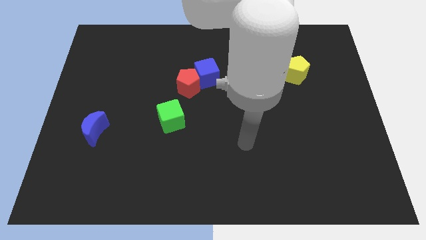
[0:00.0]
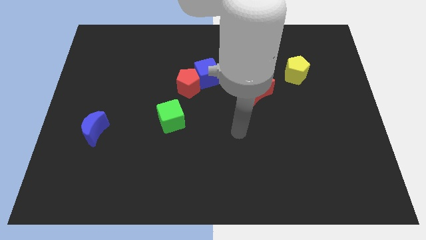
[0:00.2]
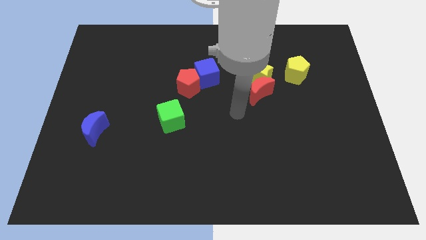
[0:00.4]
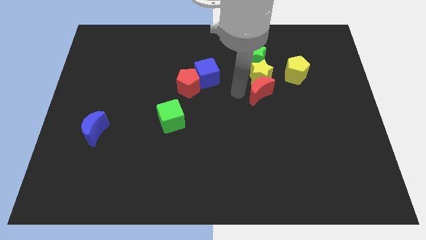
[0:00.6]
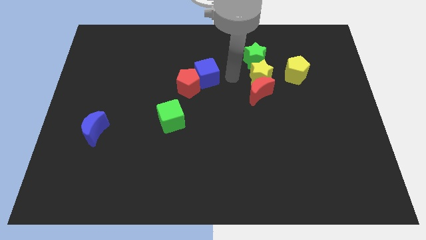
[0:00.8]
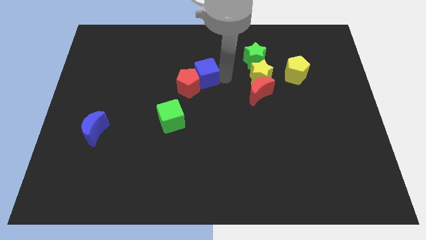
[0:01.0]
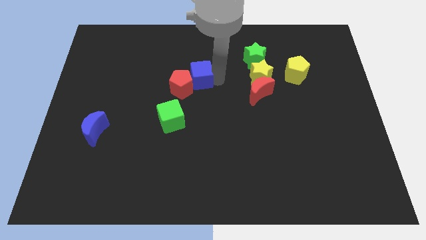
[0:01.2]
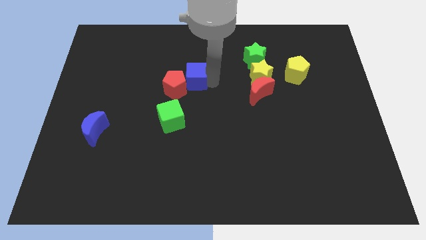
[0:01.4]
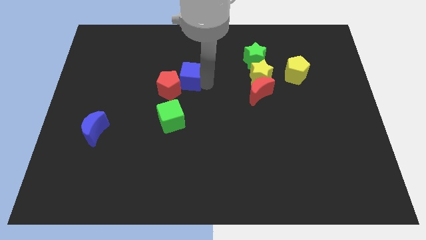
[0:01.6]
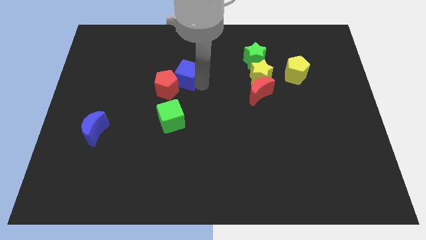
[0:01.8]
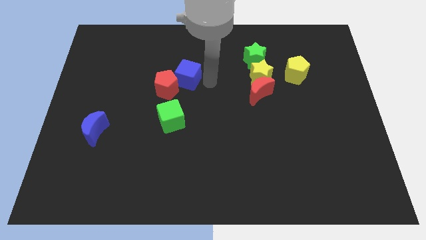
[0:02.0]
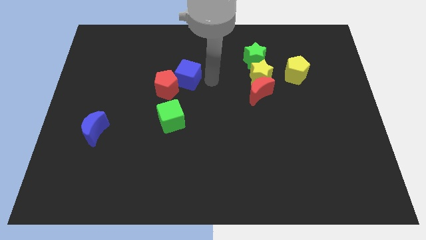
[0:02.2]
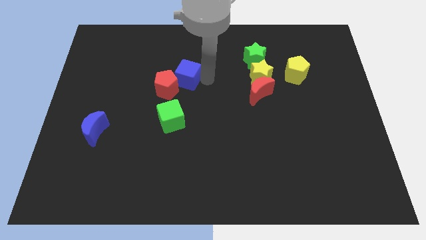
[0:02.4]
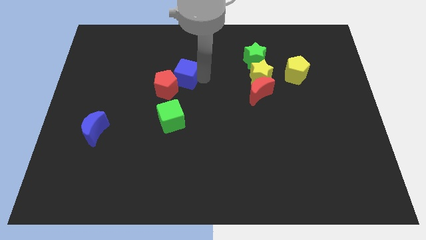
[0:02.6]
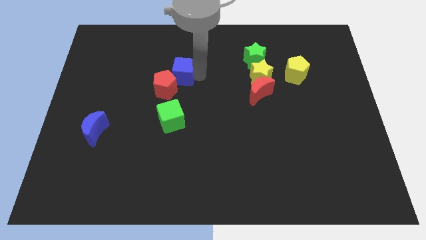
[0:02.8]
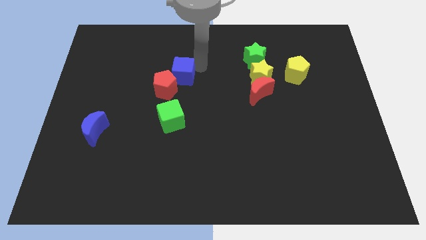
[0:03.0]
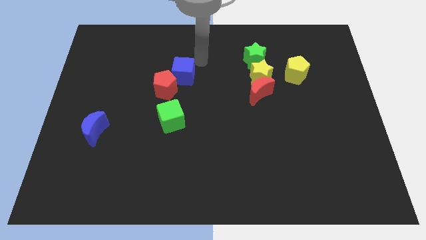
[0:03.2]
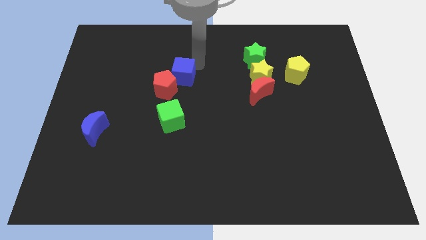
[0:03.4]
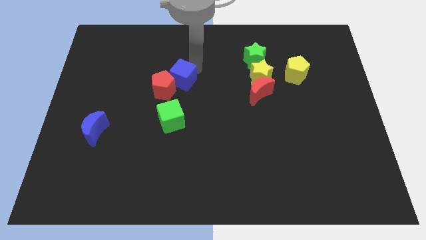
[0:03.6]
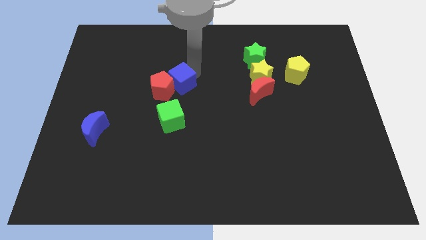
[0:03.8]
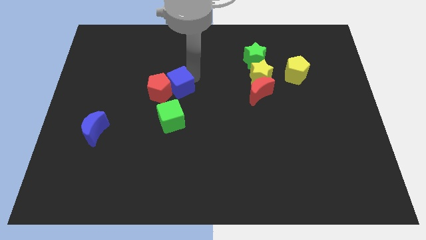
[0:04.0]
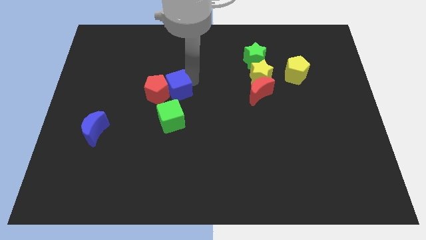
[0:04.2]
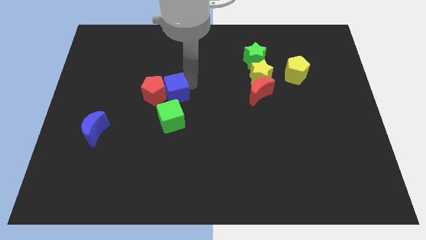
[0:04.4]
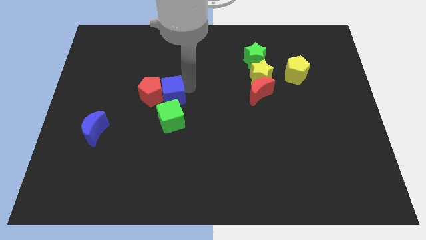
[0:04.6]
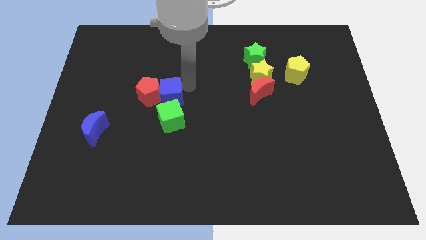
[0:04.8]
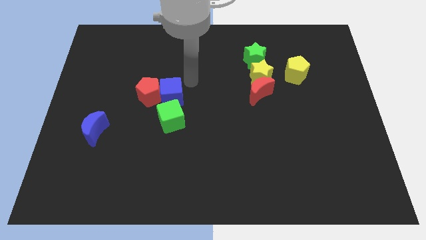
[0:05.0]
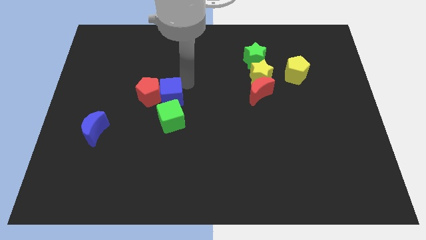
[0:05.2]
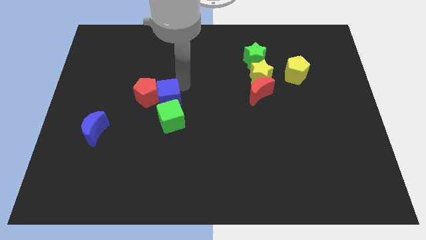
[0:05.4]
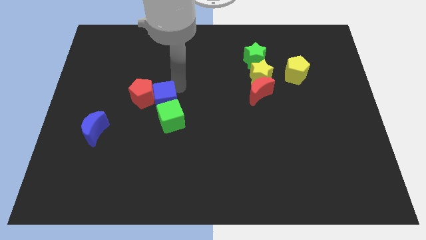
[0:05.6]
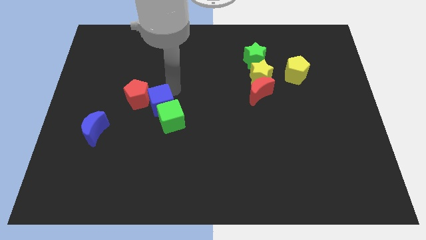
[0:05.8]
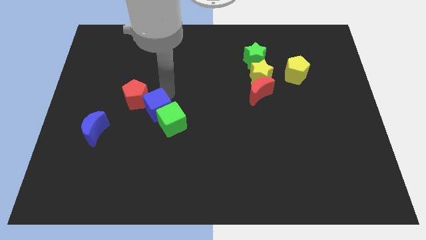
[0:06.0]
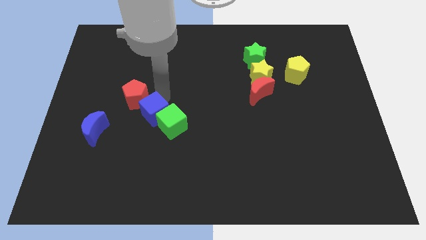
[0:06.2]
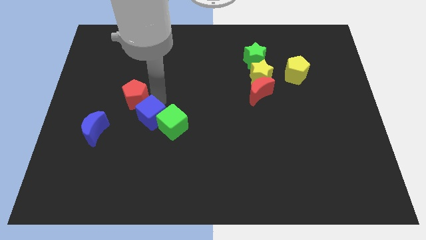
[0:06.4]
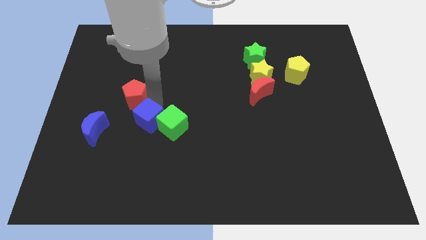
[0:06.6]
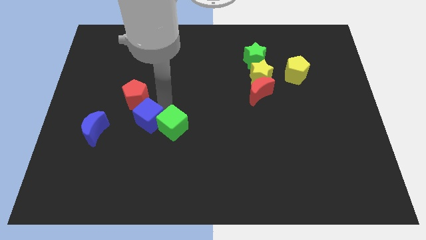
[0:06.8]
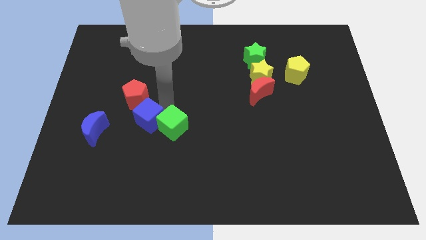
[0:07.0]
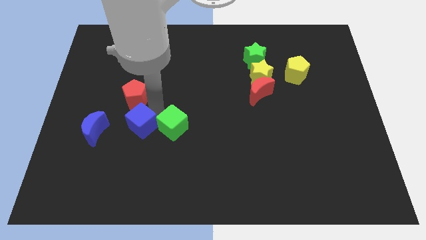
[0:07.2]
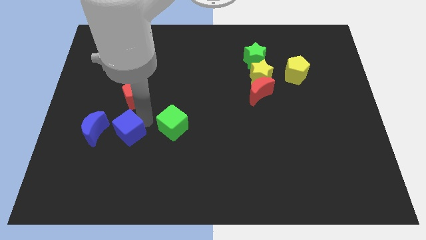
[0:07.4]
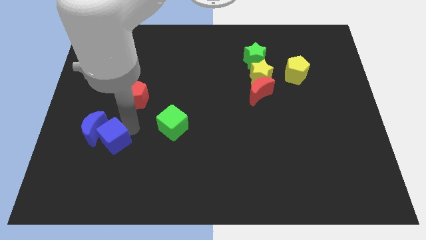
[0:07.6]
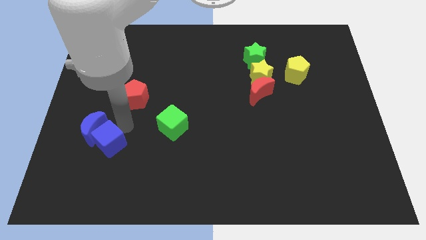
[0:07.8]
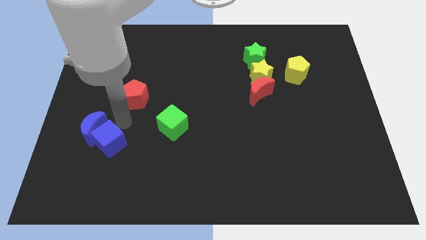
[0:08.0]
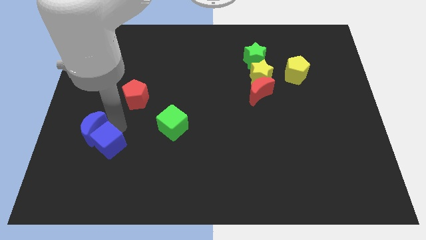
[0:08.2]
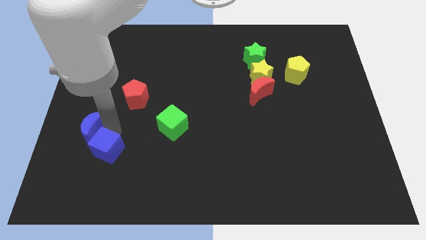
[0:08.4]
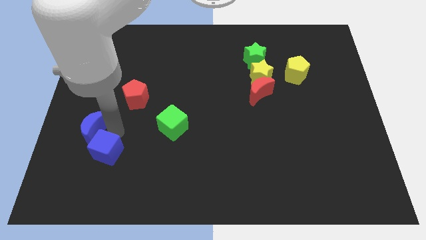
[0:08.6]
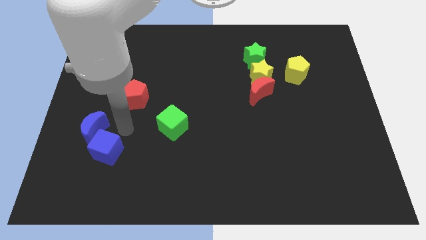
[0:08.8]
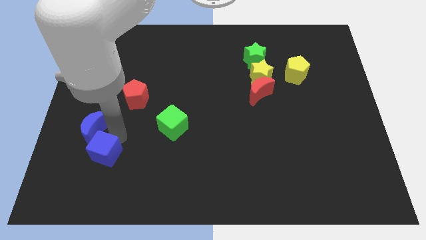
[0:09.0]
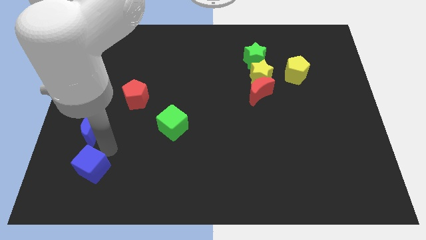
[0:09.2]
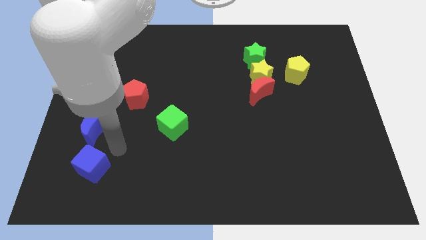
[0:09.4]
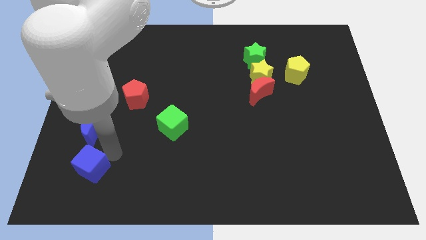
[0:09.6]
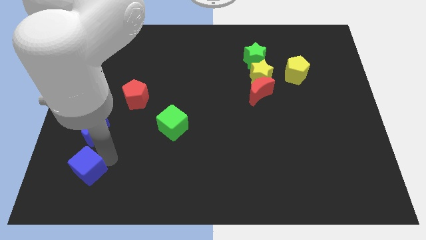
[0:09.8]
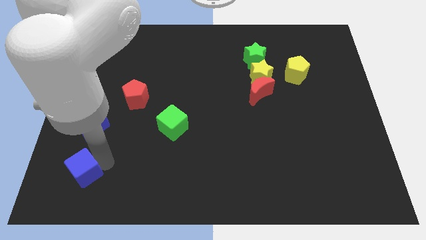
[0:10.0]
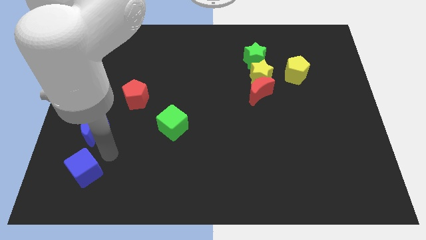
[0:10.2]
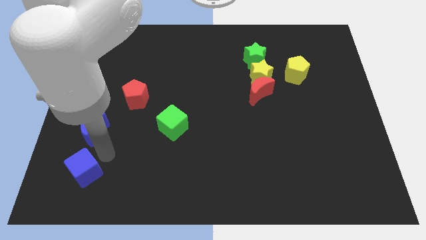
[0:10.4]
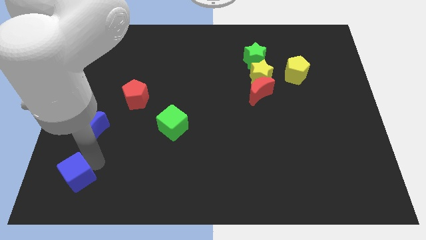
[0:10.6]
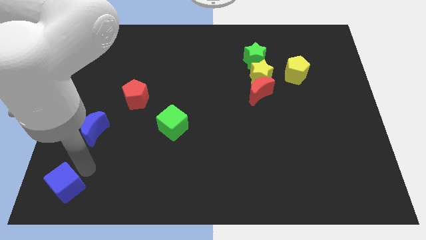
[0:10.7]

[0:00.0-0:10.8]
move the blue cube to the bottom left of the board
